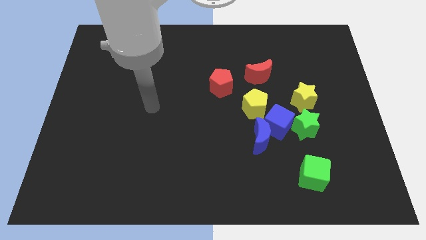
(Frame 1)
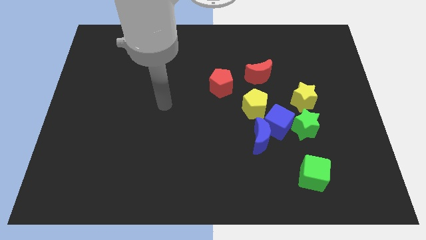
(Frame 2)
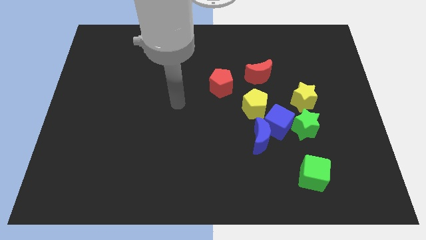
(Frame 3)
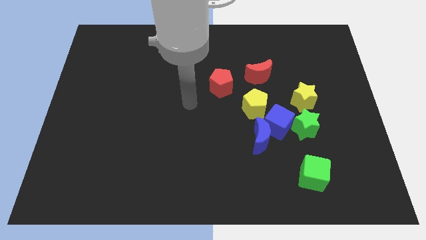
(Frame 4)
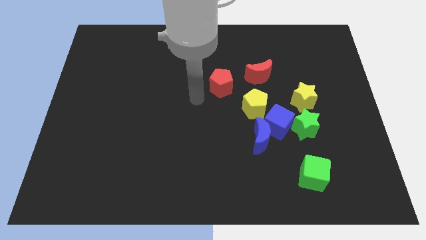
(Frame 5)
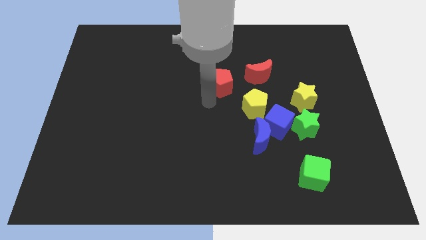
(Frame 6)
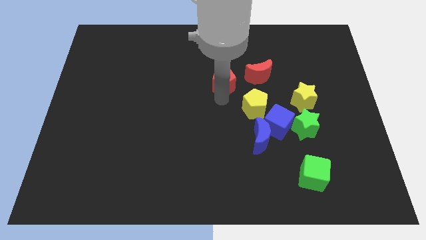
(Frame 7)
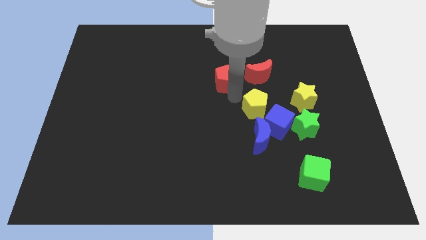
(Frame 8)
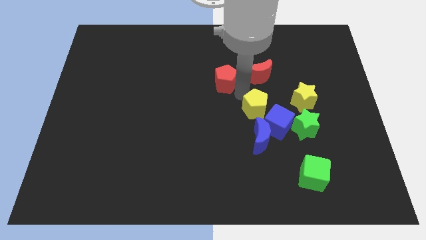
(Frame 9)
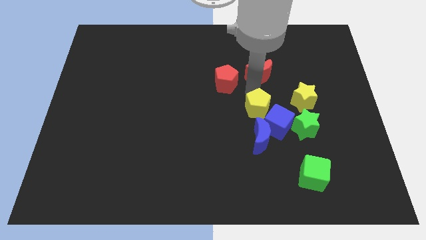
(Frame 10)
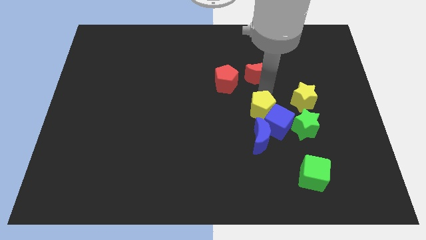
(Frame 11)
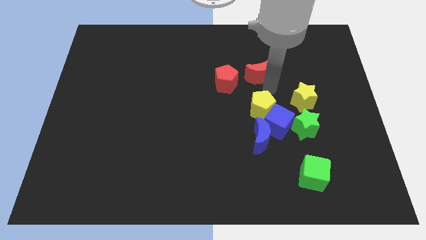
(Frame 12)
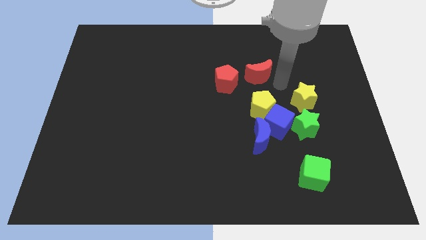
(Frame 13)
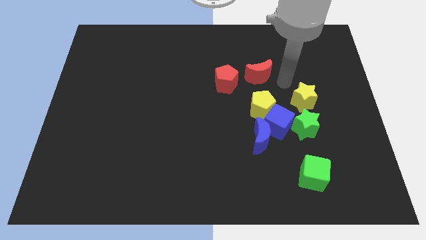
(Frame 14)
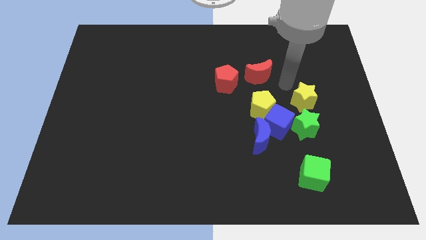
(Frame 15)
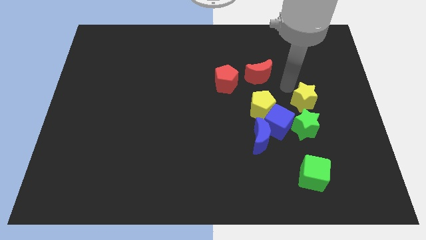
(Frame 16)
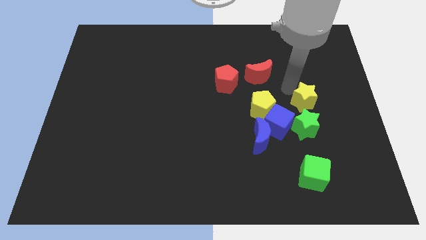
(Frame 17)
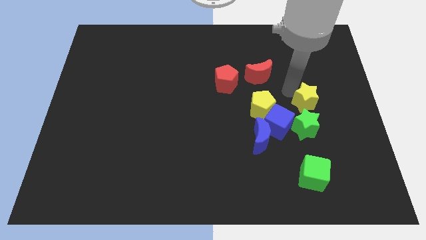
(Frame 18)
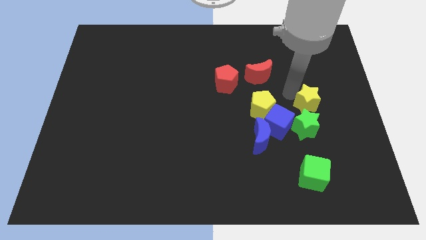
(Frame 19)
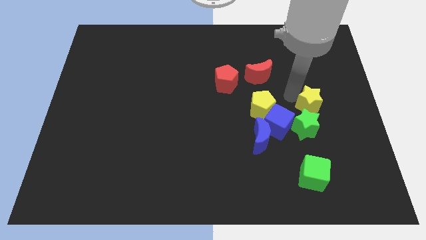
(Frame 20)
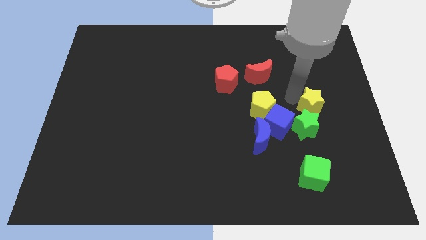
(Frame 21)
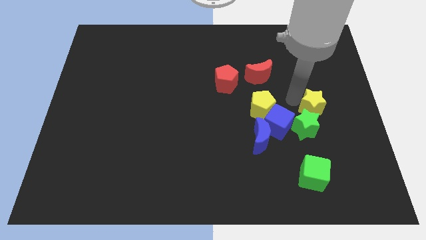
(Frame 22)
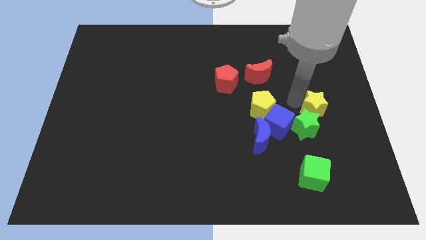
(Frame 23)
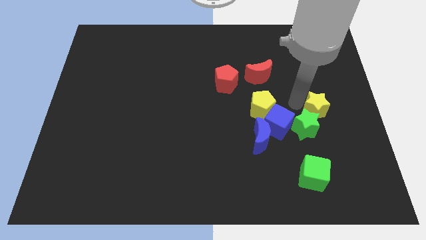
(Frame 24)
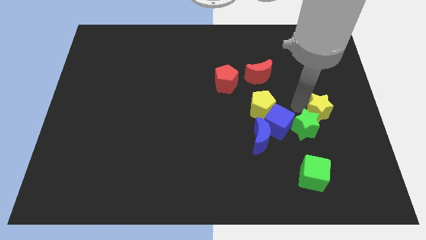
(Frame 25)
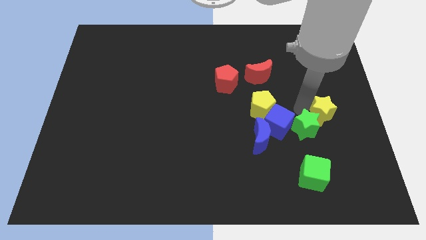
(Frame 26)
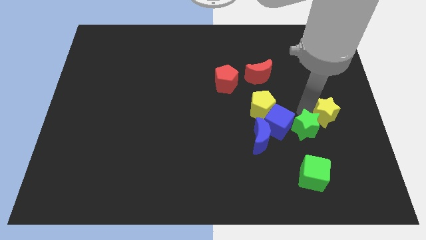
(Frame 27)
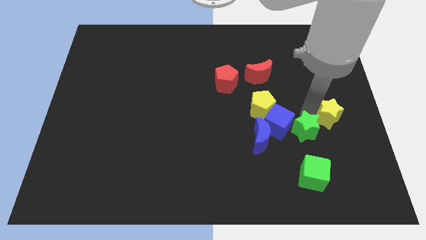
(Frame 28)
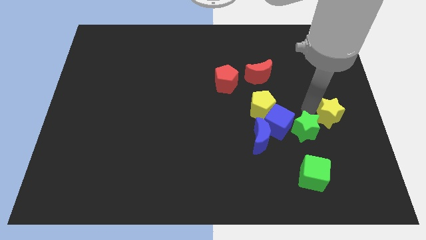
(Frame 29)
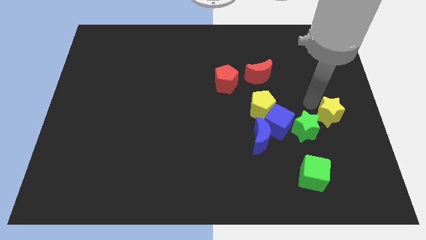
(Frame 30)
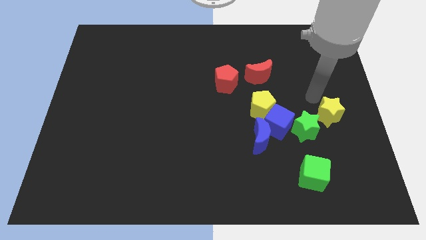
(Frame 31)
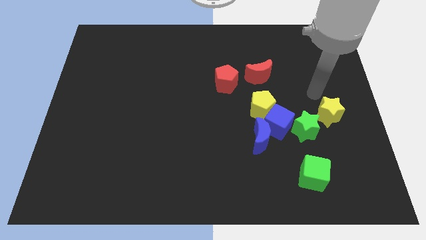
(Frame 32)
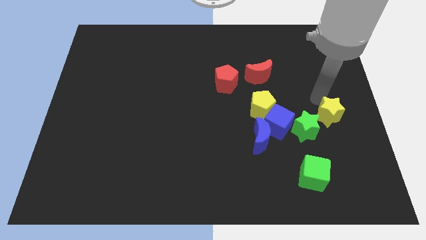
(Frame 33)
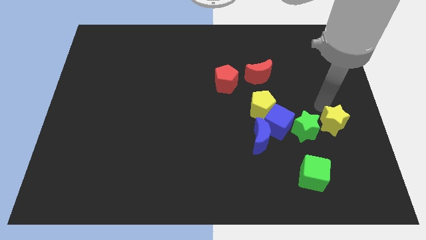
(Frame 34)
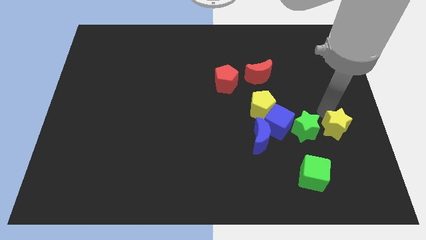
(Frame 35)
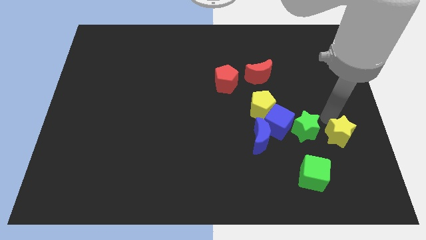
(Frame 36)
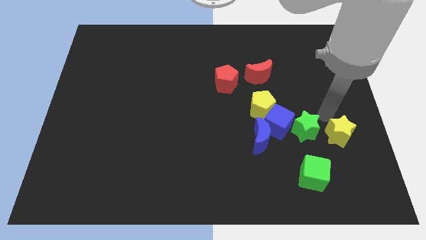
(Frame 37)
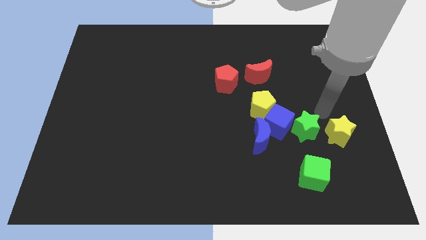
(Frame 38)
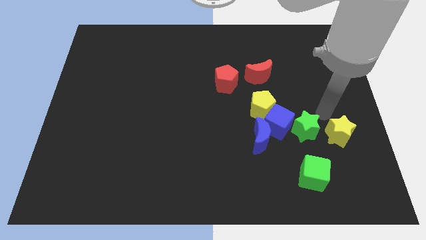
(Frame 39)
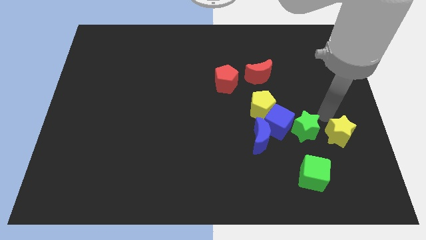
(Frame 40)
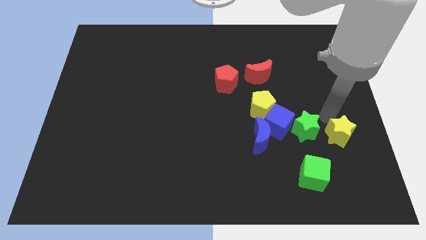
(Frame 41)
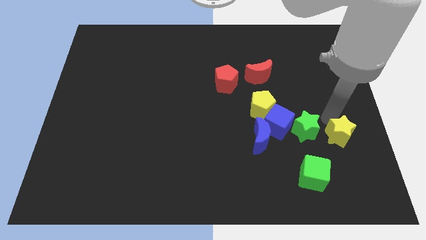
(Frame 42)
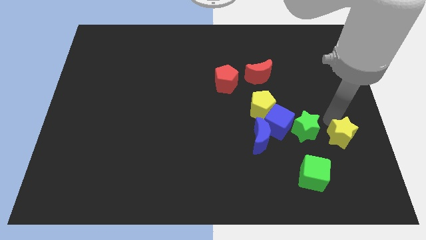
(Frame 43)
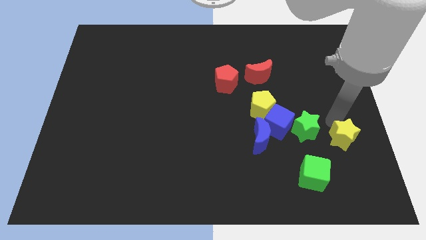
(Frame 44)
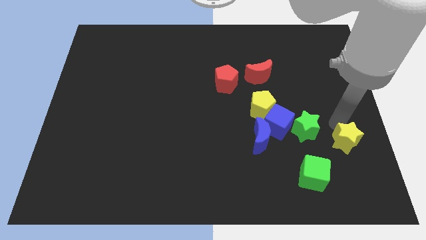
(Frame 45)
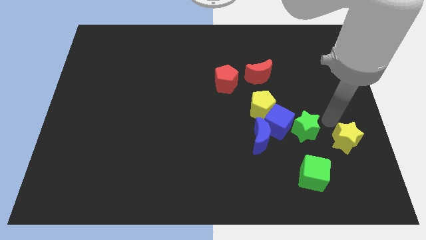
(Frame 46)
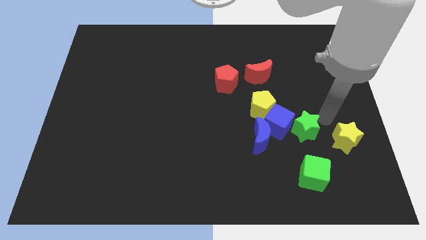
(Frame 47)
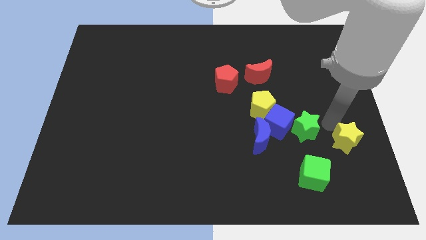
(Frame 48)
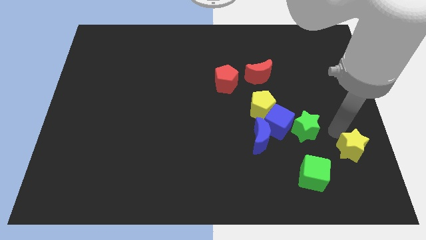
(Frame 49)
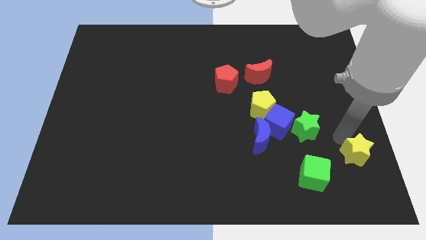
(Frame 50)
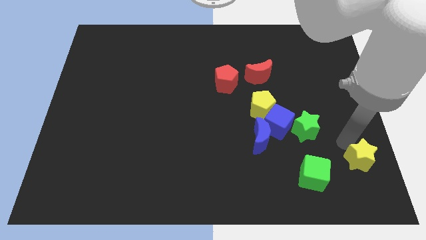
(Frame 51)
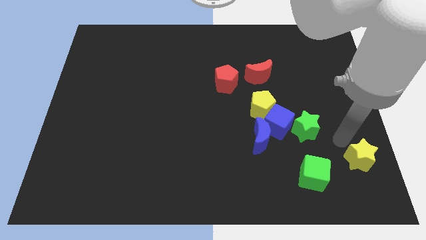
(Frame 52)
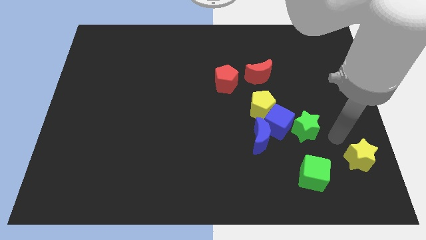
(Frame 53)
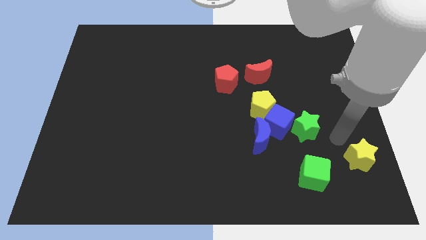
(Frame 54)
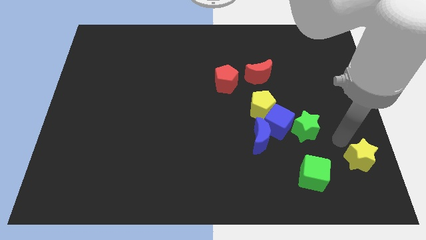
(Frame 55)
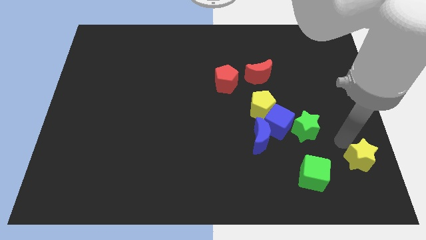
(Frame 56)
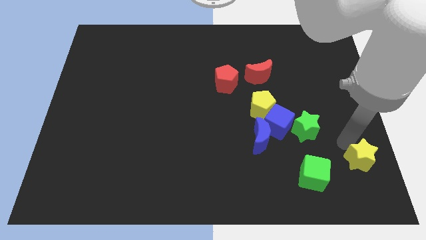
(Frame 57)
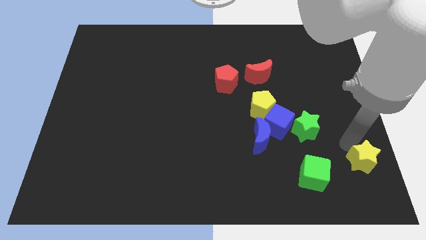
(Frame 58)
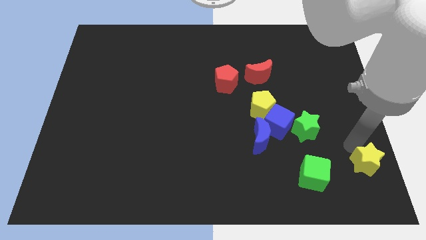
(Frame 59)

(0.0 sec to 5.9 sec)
slide the yellow star to the lower right corner
